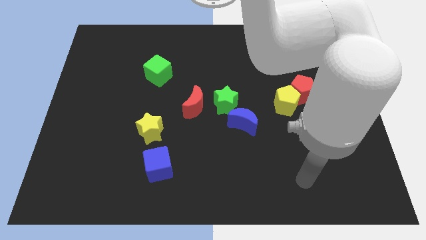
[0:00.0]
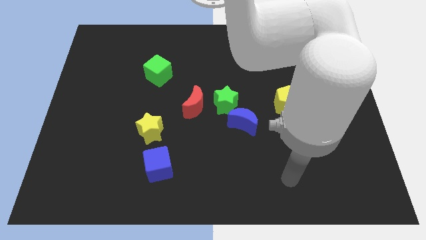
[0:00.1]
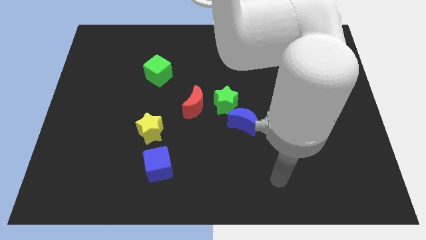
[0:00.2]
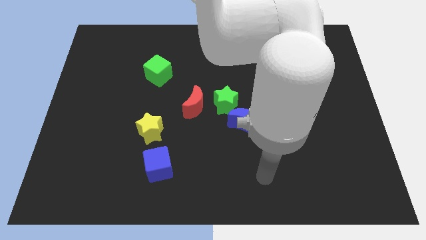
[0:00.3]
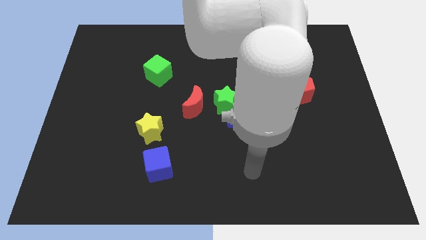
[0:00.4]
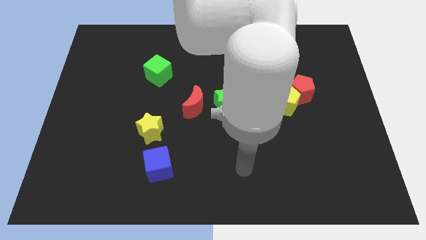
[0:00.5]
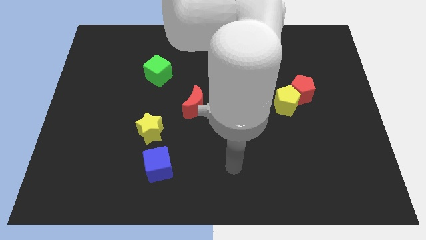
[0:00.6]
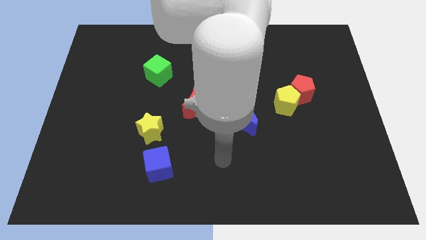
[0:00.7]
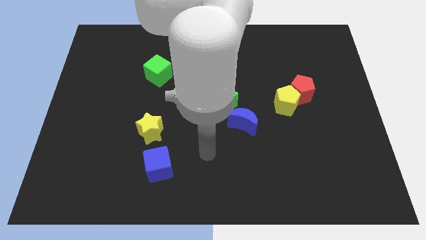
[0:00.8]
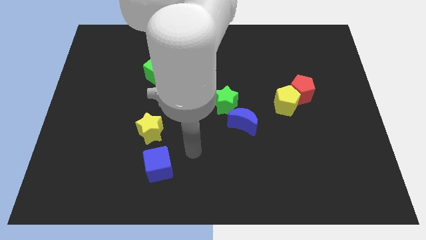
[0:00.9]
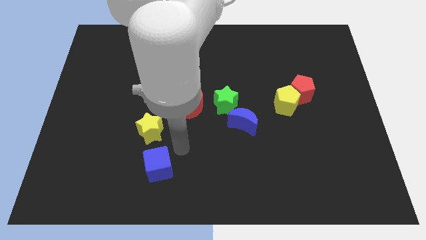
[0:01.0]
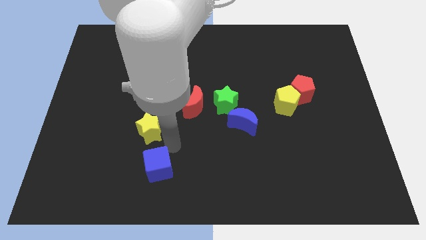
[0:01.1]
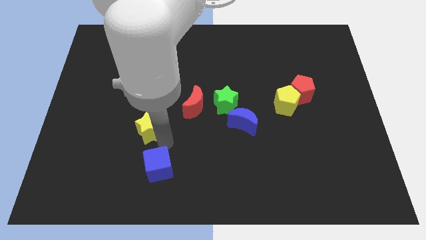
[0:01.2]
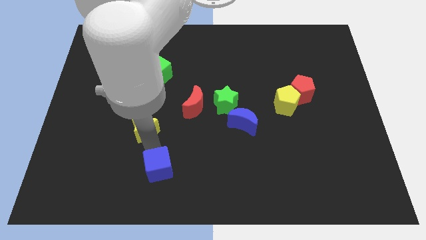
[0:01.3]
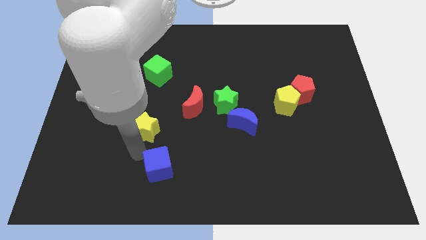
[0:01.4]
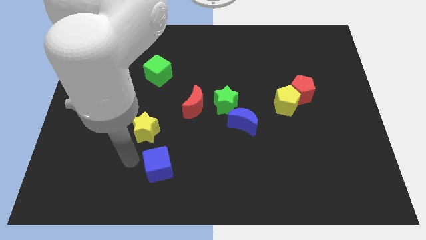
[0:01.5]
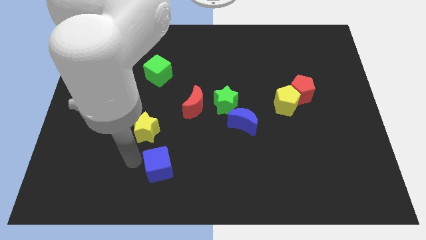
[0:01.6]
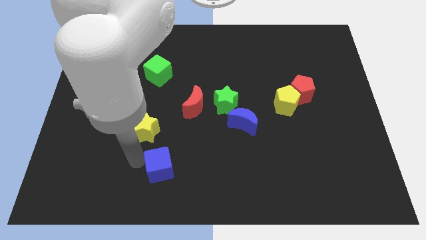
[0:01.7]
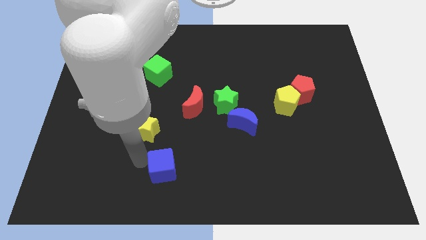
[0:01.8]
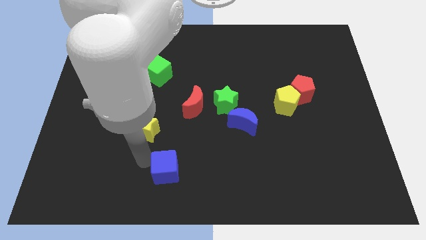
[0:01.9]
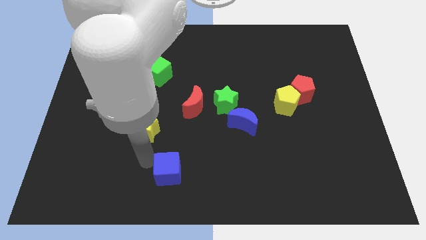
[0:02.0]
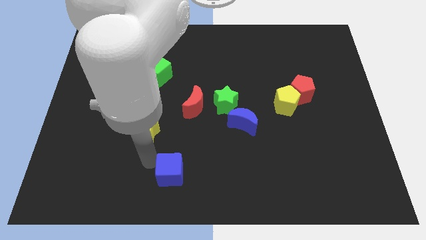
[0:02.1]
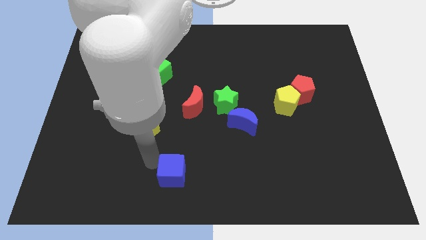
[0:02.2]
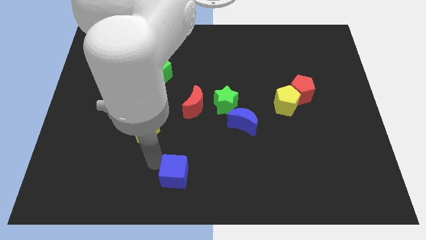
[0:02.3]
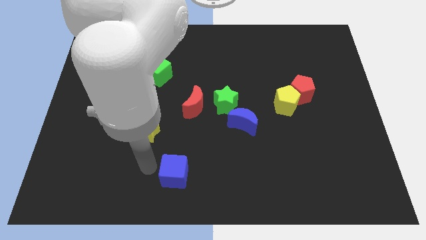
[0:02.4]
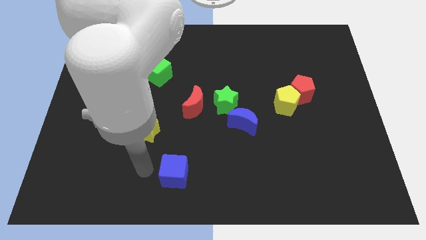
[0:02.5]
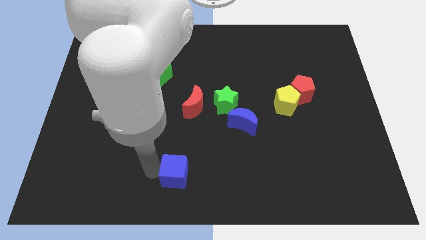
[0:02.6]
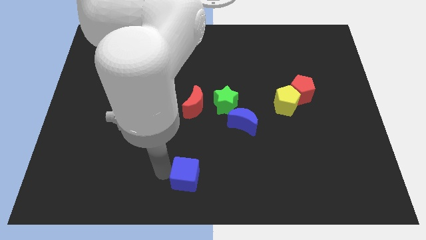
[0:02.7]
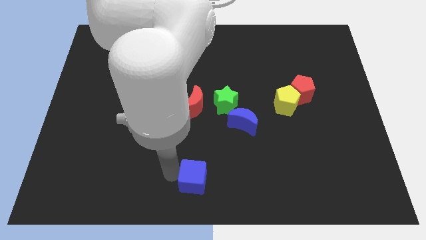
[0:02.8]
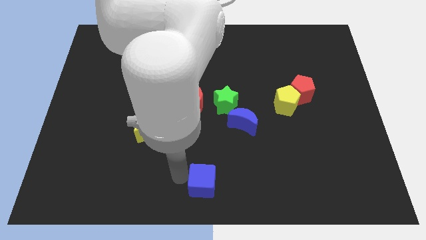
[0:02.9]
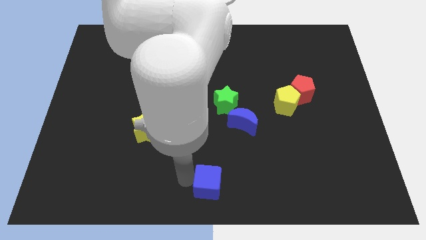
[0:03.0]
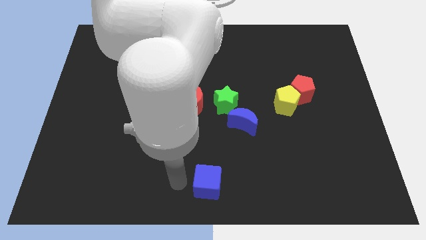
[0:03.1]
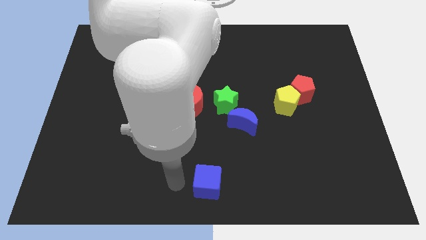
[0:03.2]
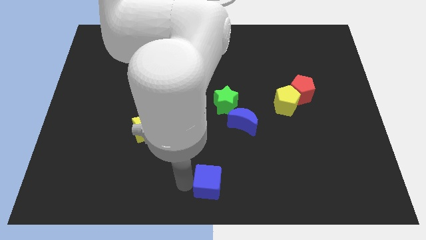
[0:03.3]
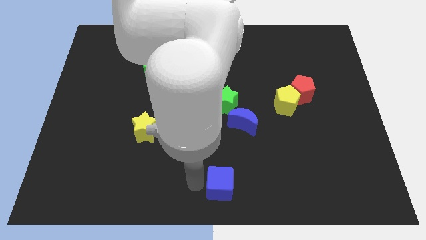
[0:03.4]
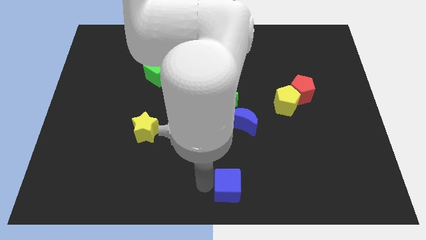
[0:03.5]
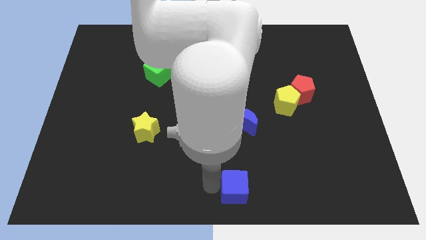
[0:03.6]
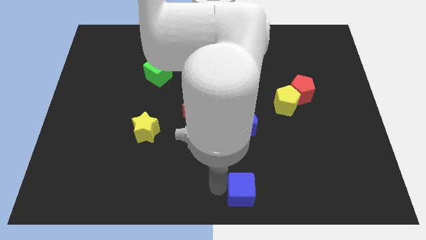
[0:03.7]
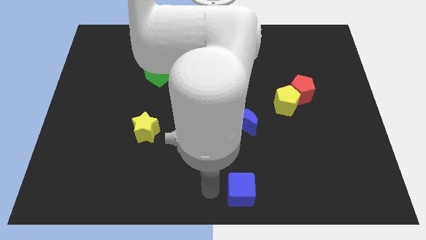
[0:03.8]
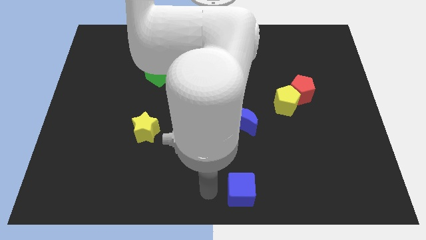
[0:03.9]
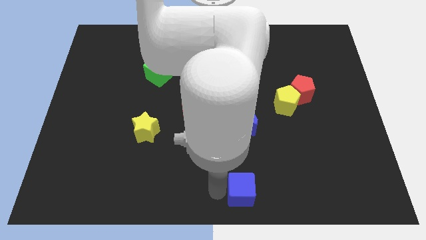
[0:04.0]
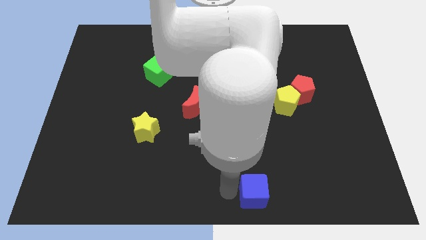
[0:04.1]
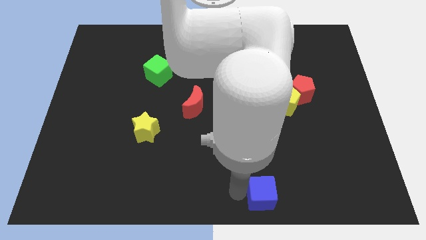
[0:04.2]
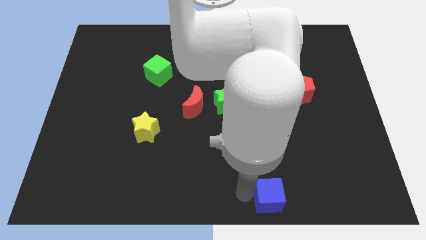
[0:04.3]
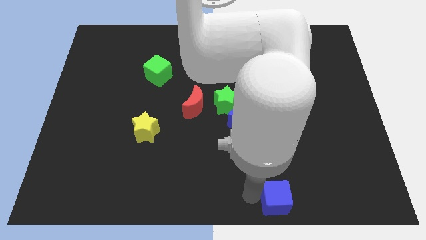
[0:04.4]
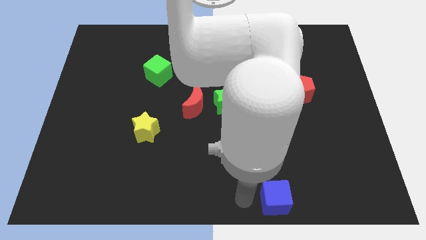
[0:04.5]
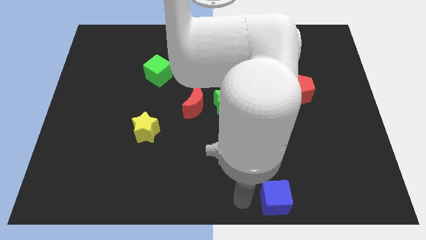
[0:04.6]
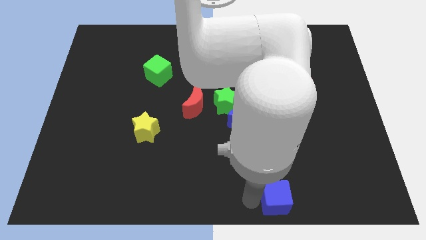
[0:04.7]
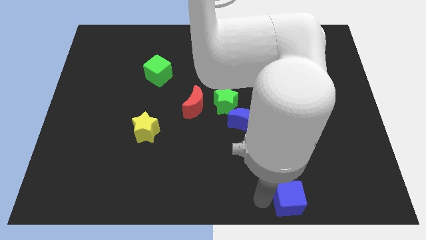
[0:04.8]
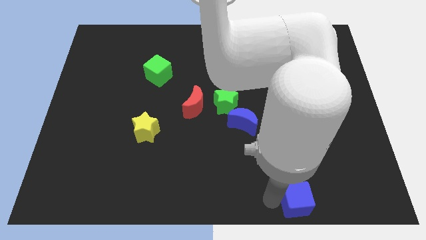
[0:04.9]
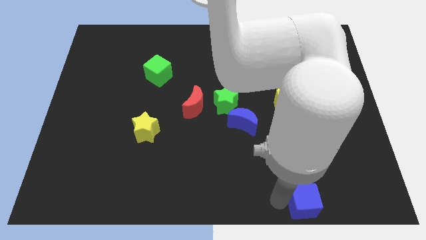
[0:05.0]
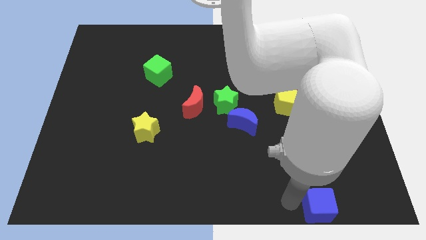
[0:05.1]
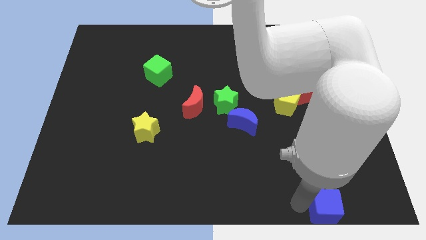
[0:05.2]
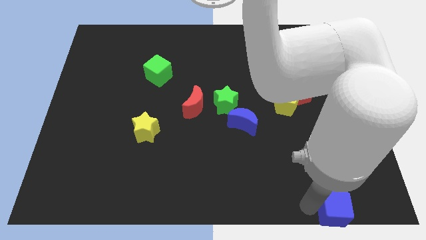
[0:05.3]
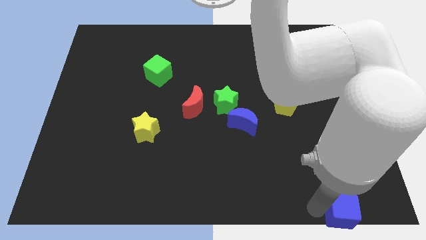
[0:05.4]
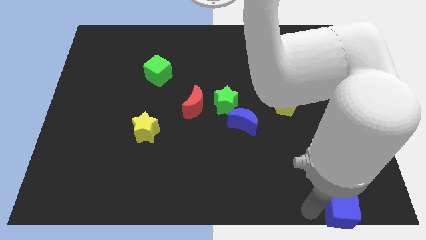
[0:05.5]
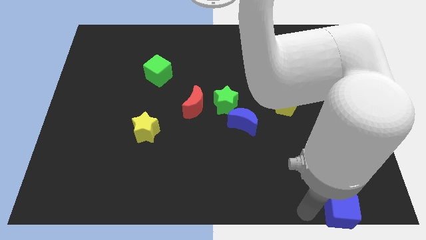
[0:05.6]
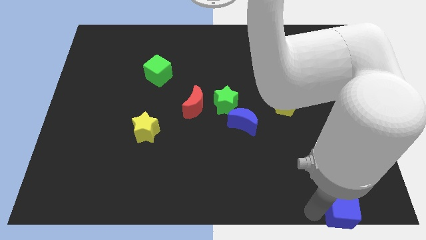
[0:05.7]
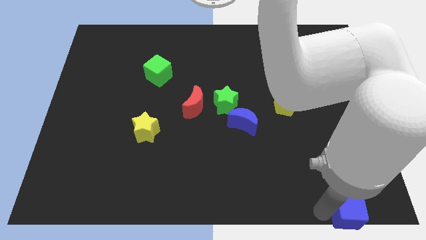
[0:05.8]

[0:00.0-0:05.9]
slide the blue cube to the bottom right corner

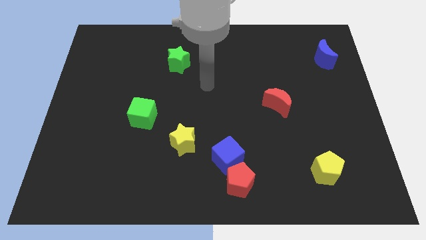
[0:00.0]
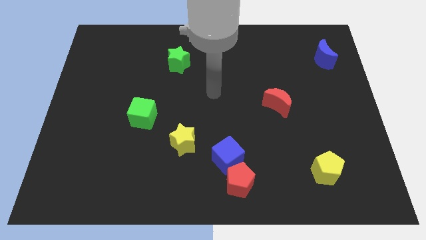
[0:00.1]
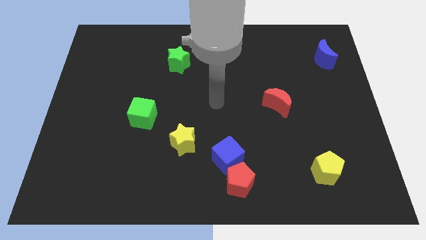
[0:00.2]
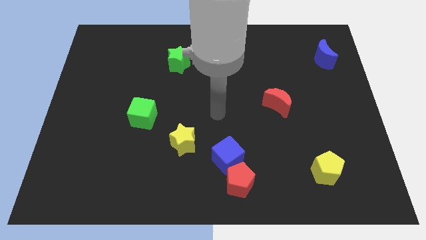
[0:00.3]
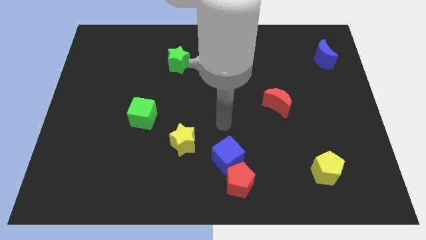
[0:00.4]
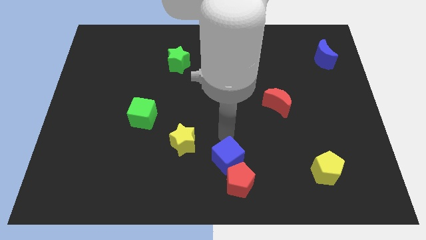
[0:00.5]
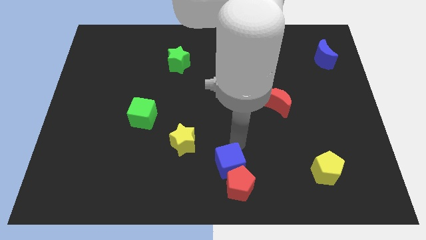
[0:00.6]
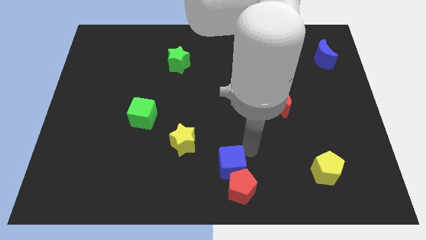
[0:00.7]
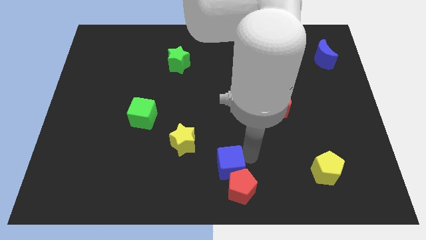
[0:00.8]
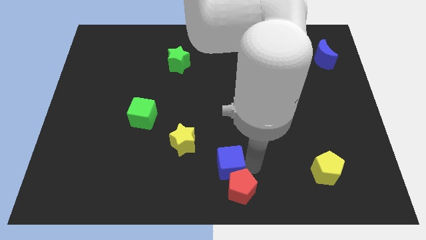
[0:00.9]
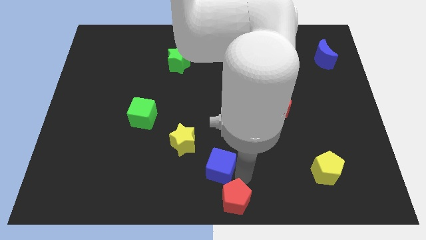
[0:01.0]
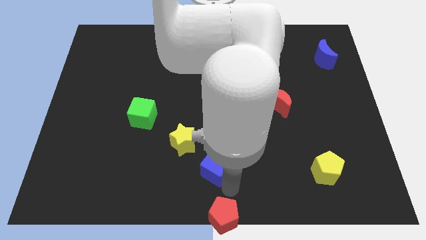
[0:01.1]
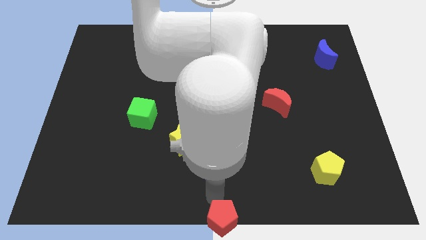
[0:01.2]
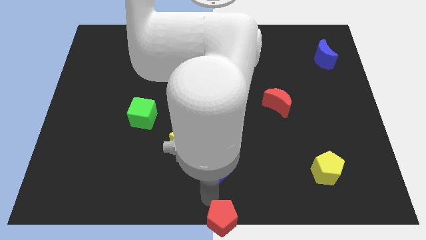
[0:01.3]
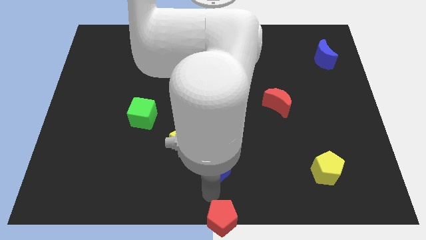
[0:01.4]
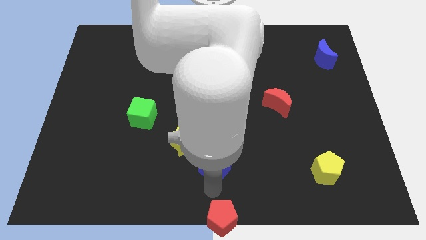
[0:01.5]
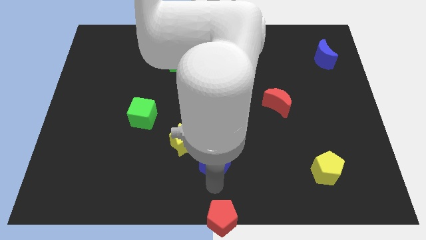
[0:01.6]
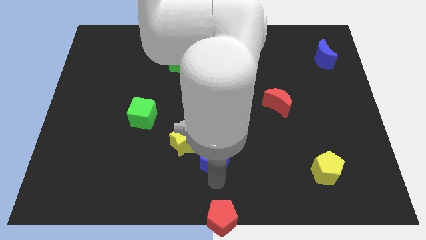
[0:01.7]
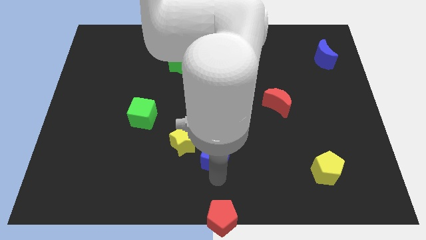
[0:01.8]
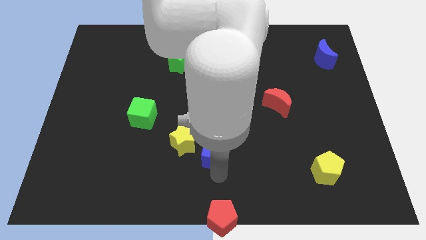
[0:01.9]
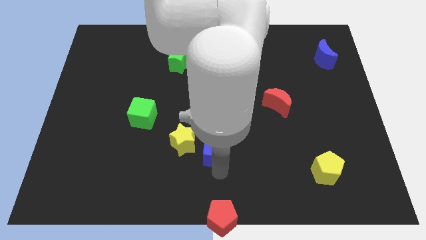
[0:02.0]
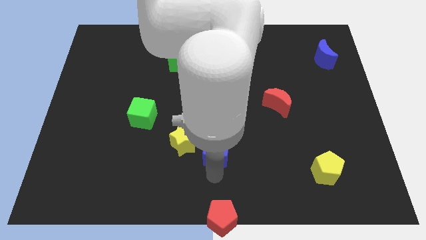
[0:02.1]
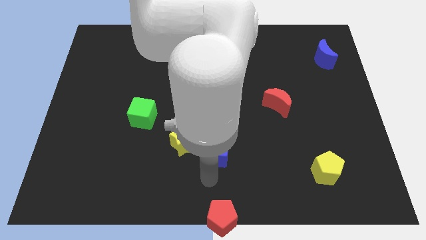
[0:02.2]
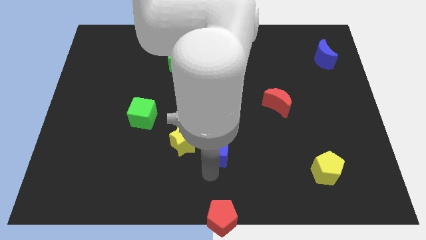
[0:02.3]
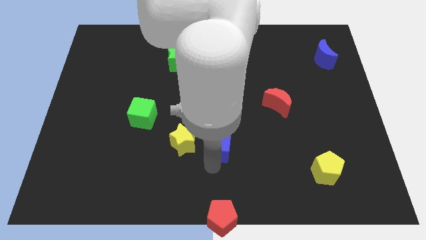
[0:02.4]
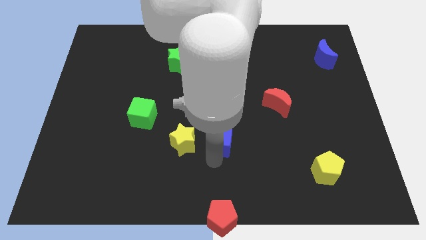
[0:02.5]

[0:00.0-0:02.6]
push the blue cube to the center
